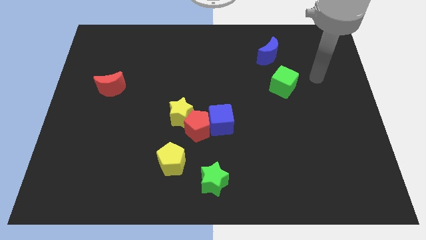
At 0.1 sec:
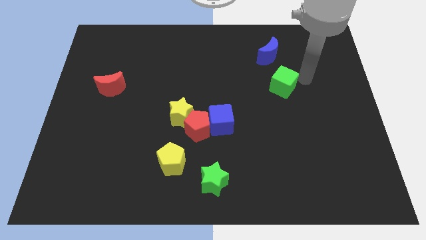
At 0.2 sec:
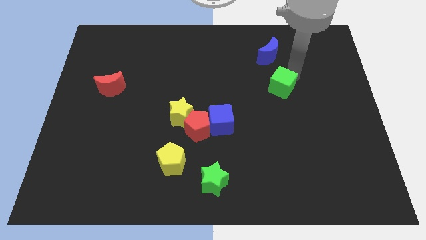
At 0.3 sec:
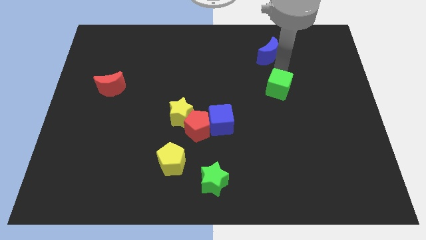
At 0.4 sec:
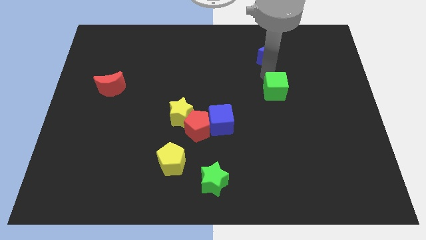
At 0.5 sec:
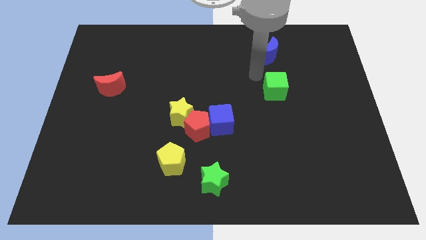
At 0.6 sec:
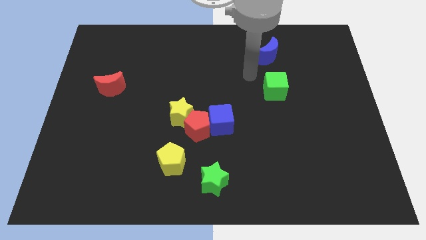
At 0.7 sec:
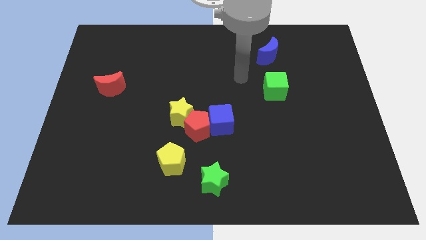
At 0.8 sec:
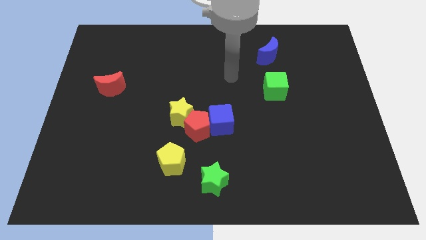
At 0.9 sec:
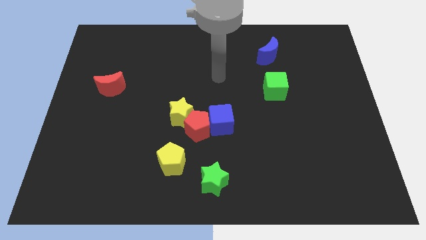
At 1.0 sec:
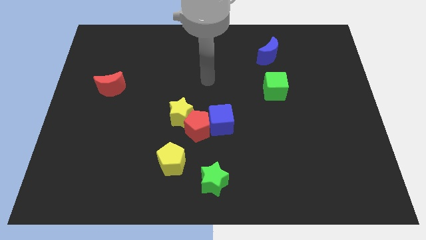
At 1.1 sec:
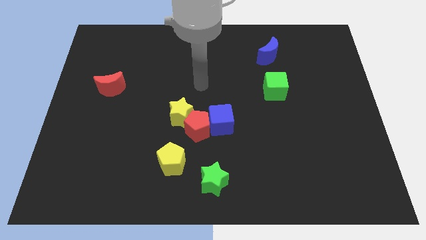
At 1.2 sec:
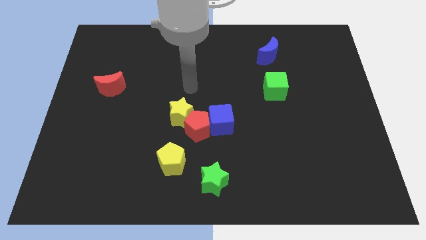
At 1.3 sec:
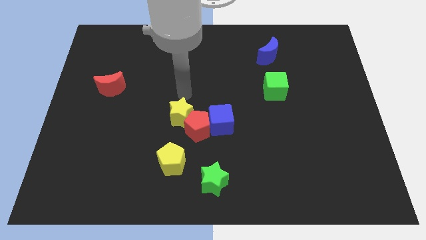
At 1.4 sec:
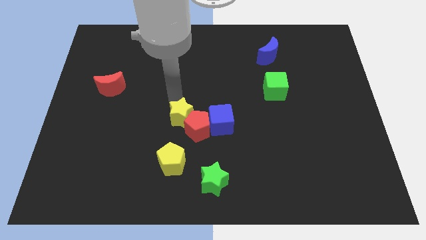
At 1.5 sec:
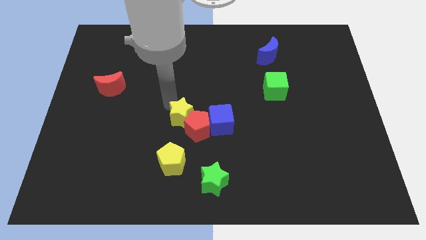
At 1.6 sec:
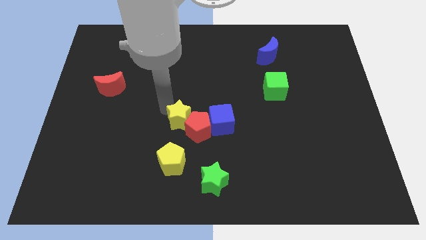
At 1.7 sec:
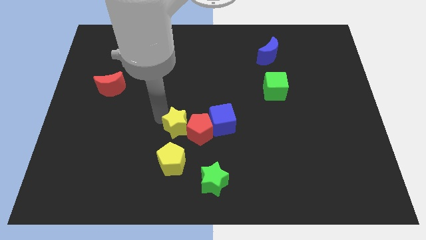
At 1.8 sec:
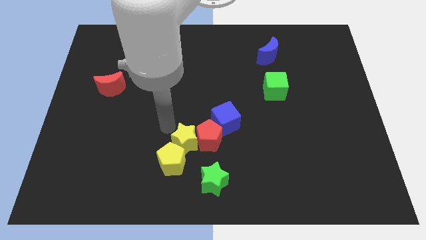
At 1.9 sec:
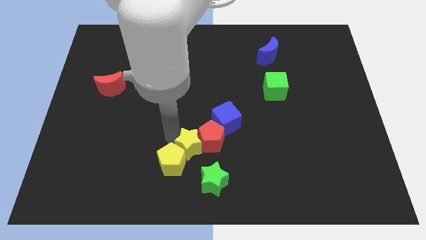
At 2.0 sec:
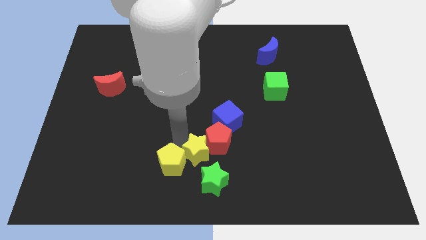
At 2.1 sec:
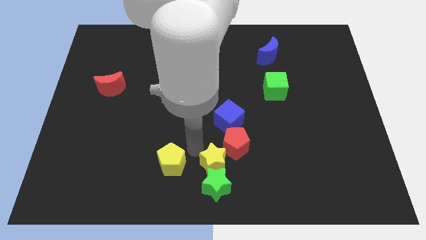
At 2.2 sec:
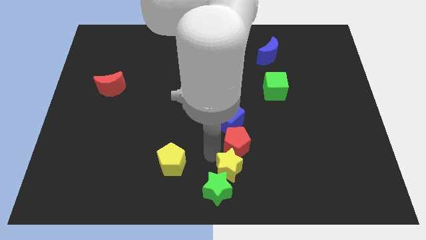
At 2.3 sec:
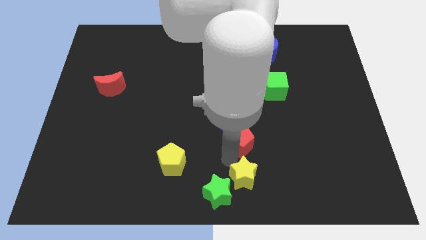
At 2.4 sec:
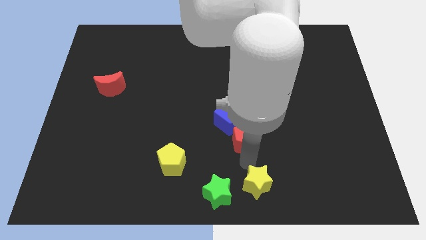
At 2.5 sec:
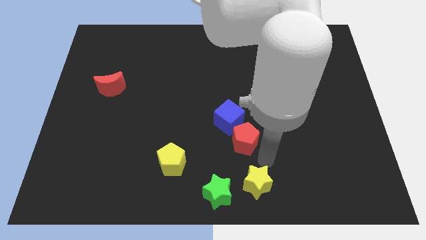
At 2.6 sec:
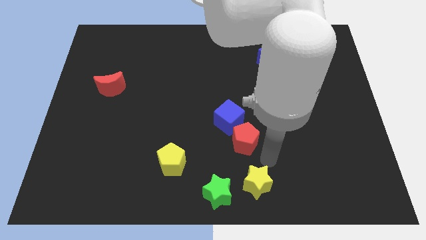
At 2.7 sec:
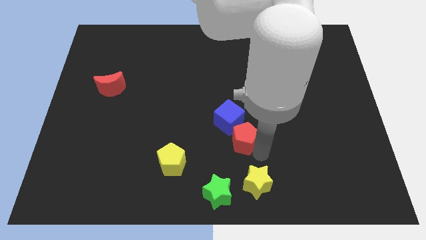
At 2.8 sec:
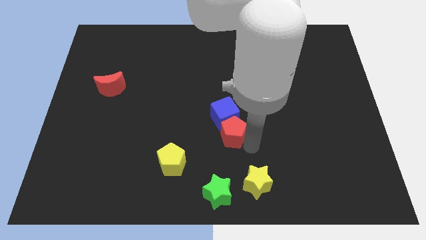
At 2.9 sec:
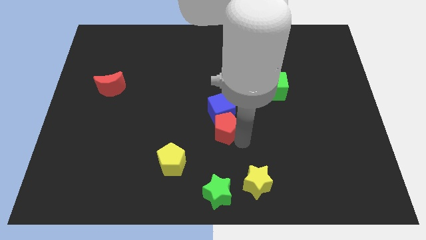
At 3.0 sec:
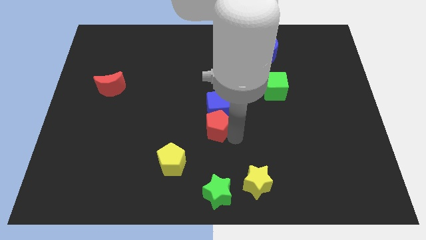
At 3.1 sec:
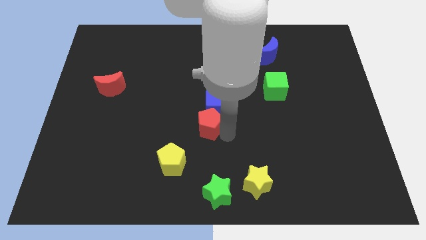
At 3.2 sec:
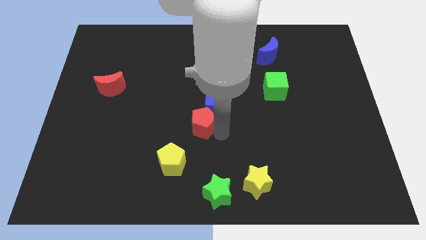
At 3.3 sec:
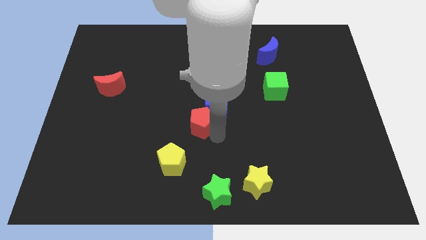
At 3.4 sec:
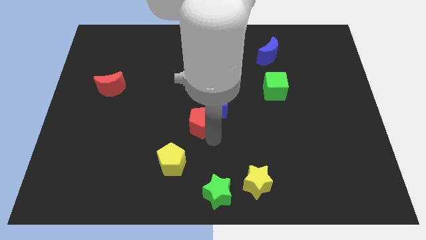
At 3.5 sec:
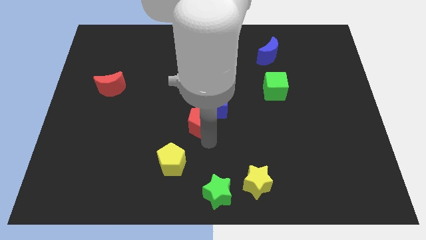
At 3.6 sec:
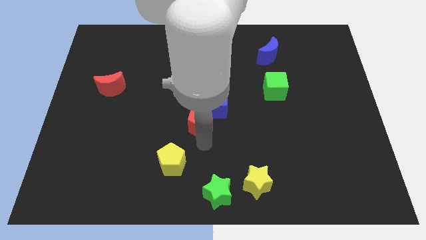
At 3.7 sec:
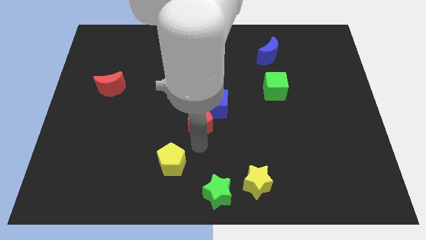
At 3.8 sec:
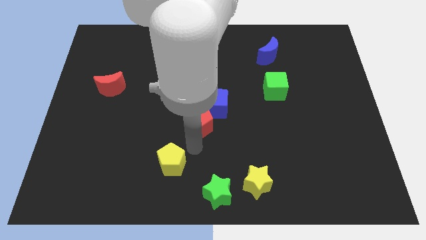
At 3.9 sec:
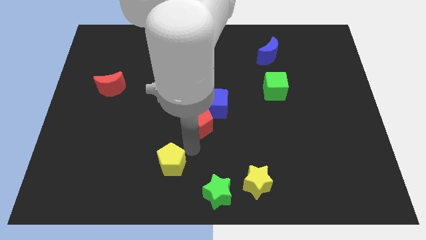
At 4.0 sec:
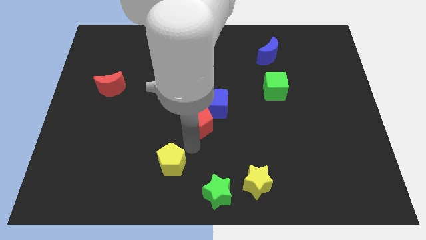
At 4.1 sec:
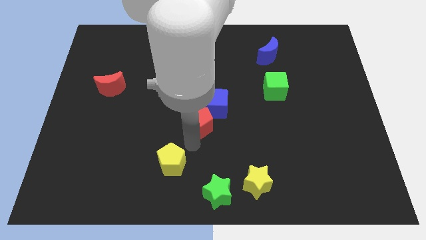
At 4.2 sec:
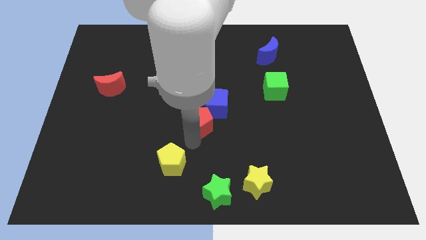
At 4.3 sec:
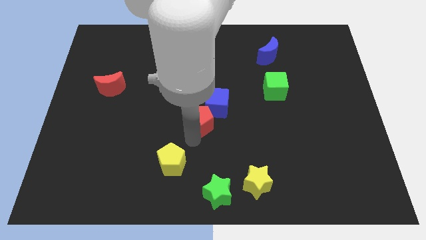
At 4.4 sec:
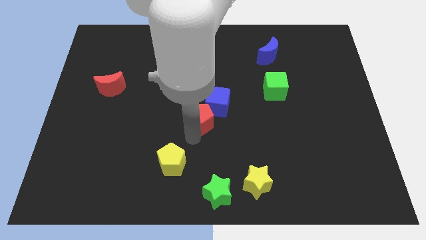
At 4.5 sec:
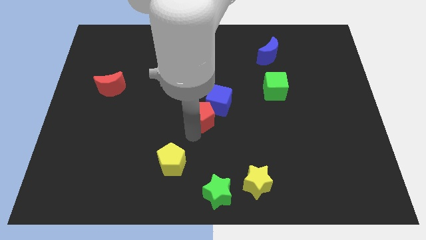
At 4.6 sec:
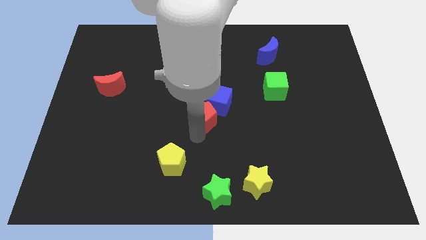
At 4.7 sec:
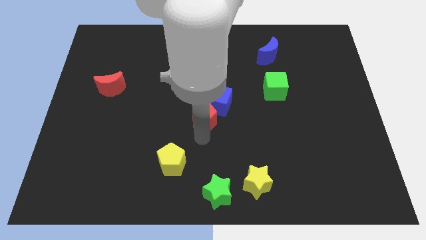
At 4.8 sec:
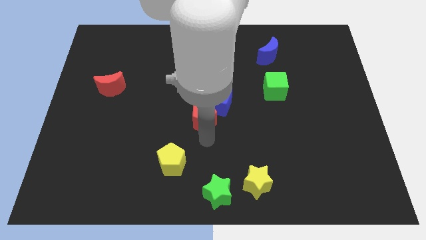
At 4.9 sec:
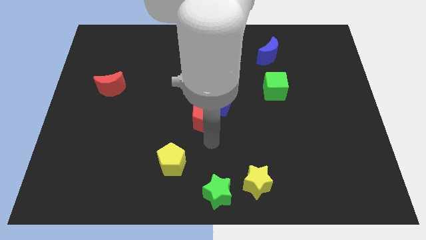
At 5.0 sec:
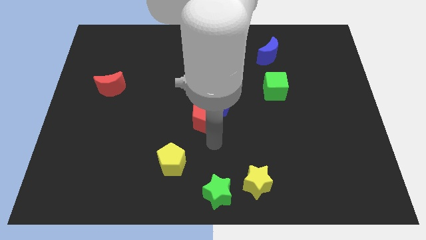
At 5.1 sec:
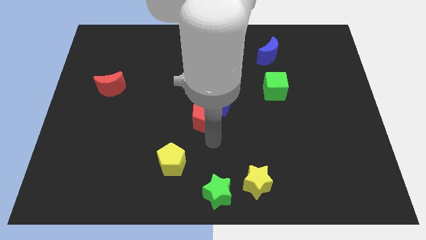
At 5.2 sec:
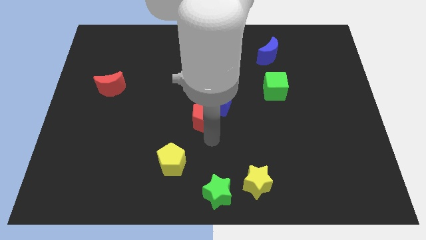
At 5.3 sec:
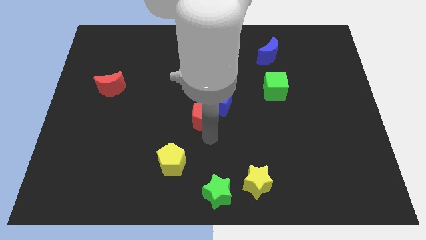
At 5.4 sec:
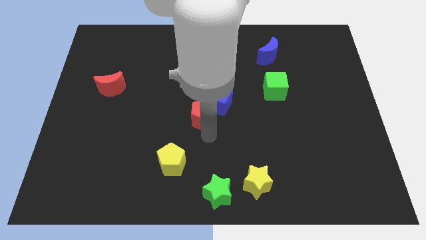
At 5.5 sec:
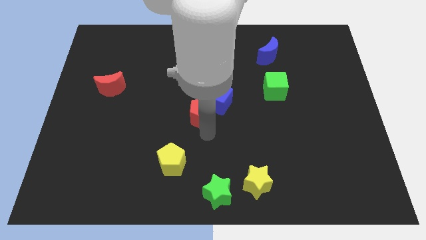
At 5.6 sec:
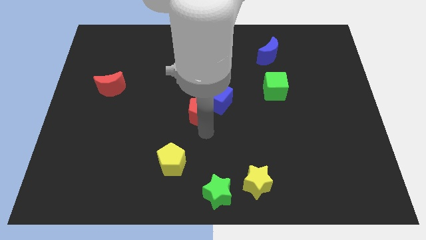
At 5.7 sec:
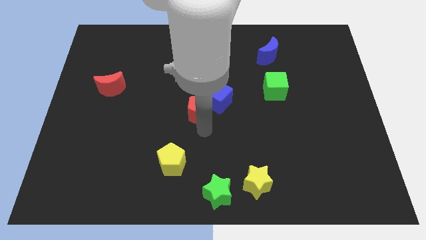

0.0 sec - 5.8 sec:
pull the red pentagon apart from the yellow star, blue cube, and yellow pentagon

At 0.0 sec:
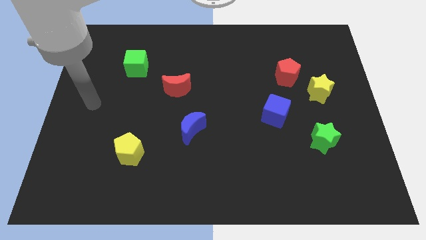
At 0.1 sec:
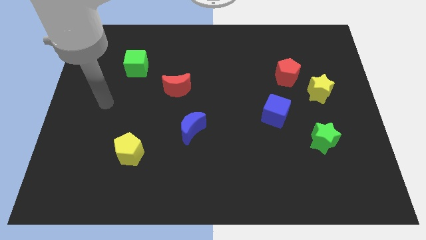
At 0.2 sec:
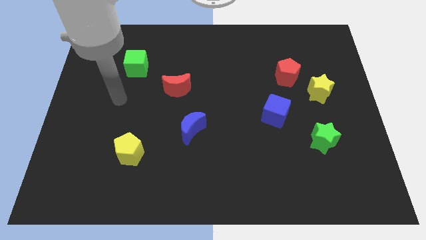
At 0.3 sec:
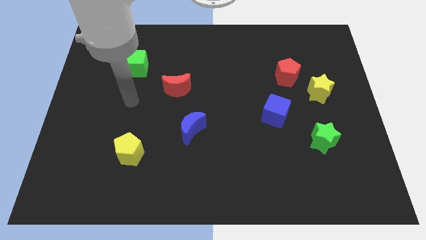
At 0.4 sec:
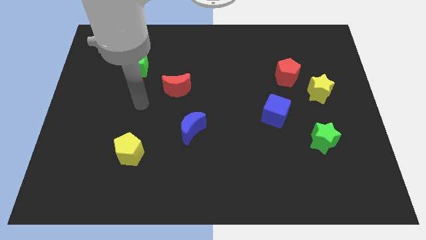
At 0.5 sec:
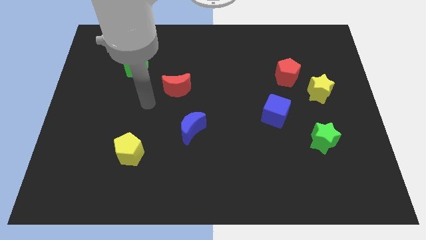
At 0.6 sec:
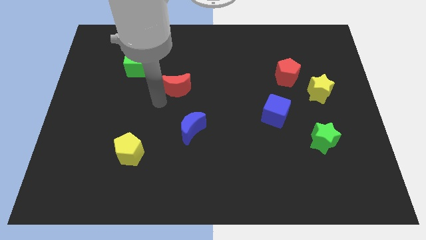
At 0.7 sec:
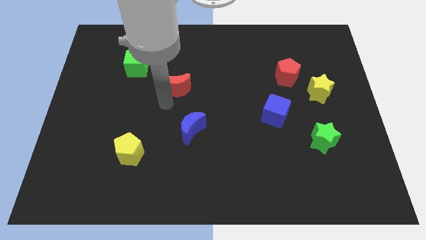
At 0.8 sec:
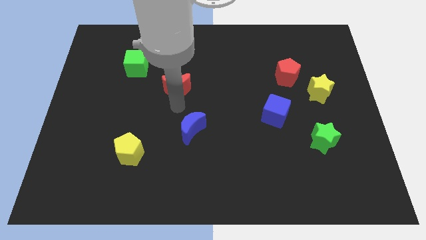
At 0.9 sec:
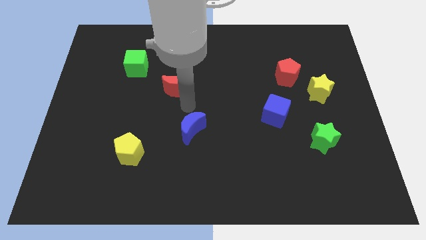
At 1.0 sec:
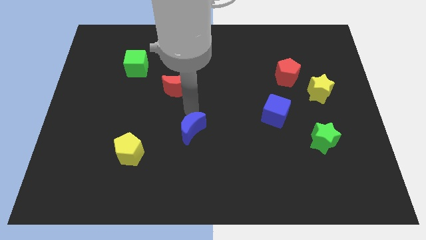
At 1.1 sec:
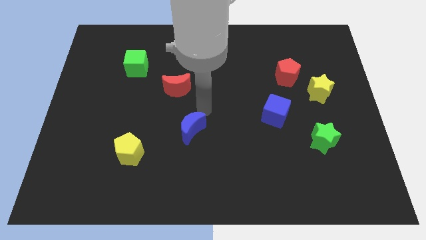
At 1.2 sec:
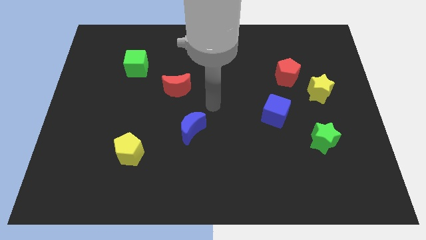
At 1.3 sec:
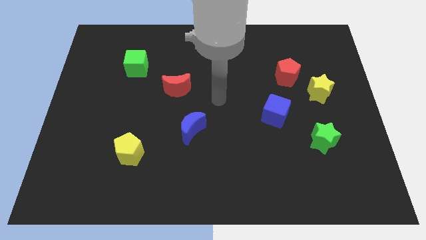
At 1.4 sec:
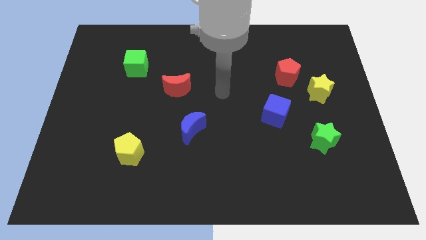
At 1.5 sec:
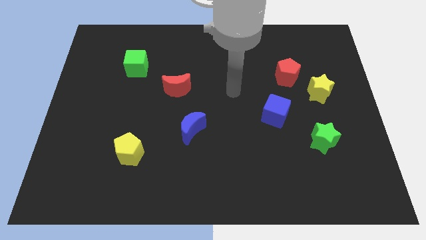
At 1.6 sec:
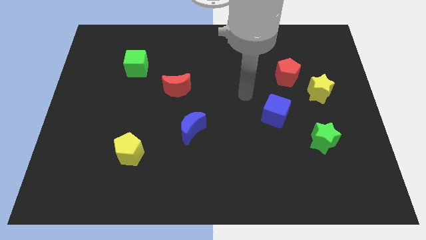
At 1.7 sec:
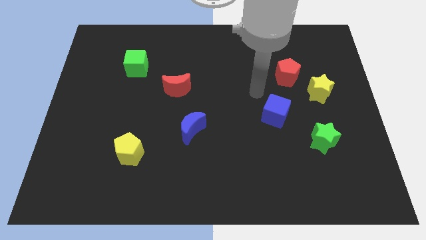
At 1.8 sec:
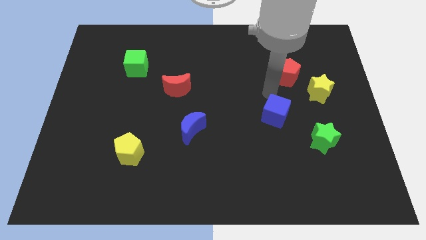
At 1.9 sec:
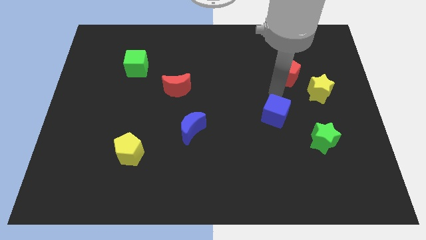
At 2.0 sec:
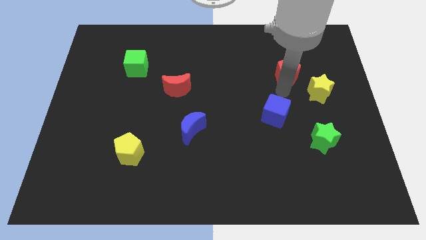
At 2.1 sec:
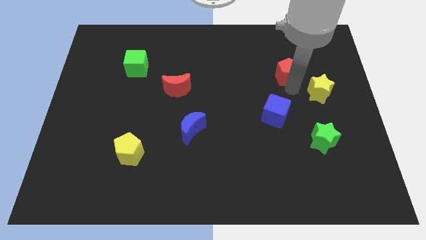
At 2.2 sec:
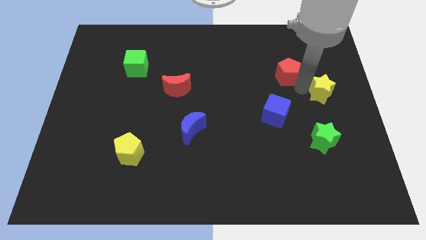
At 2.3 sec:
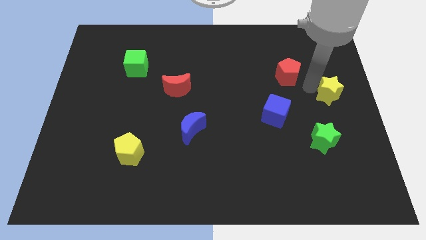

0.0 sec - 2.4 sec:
move the red pentagon away from the yellow star

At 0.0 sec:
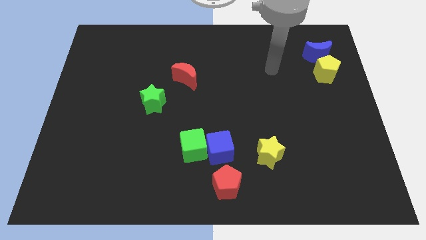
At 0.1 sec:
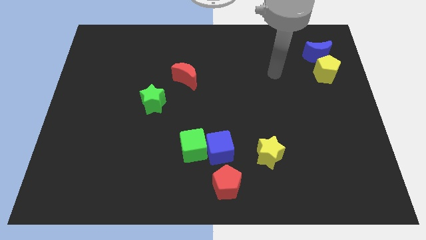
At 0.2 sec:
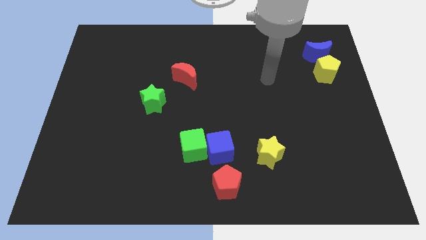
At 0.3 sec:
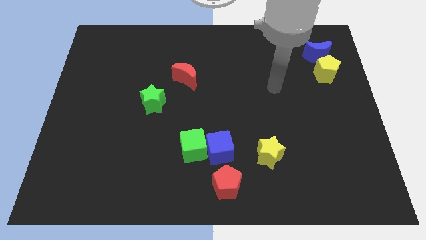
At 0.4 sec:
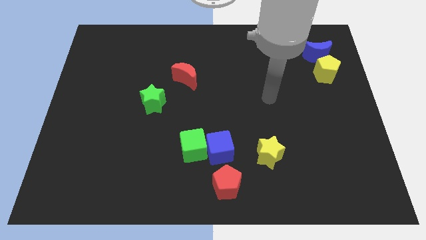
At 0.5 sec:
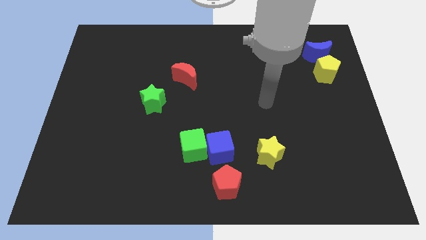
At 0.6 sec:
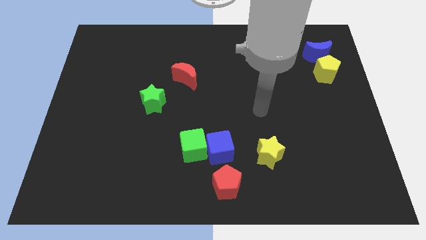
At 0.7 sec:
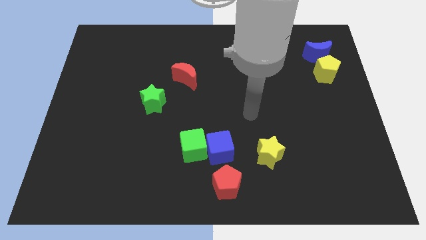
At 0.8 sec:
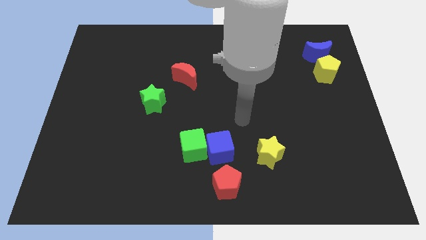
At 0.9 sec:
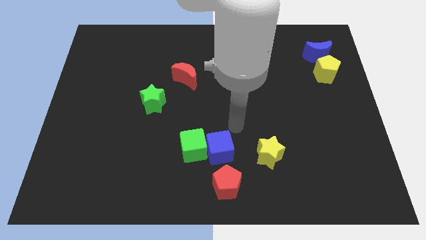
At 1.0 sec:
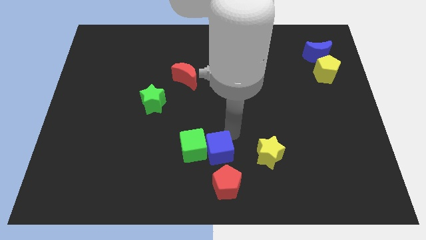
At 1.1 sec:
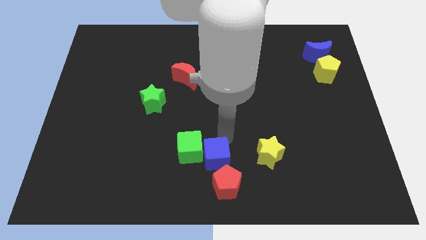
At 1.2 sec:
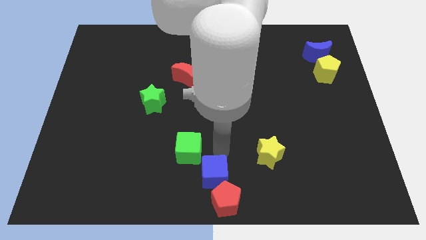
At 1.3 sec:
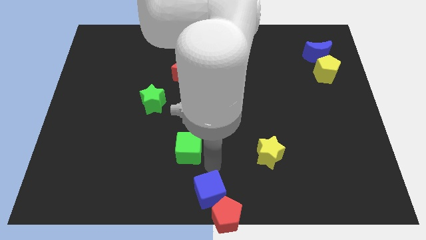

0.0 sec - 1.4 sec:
pull the green cube apart from the blue cube
